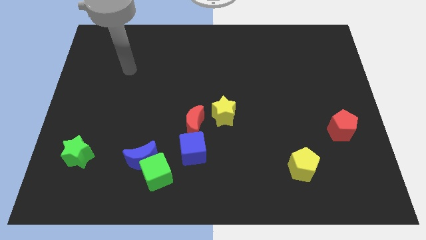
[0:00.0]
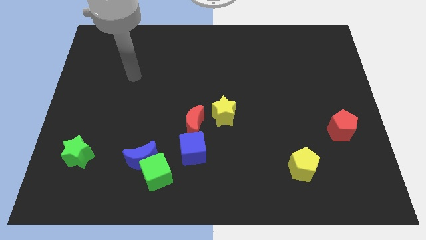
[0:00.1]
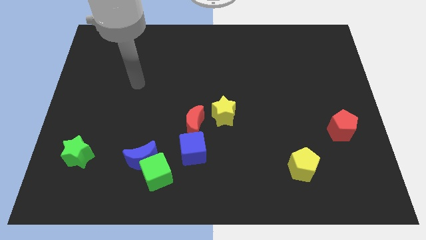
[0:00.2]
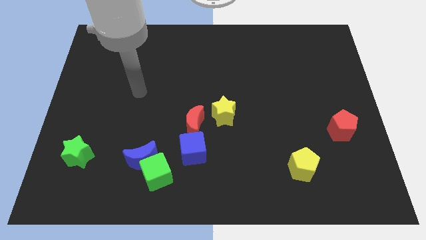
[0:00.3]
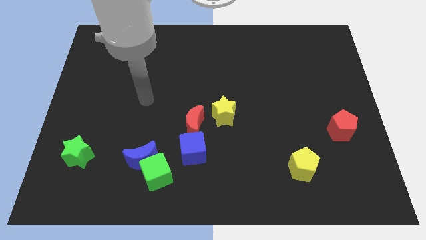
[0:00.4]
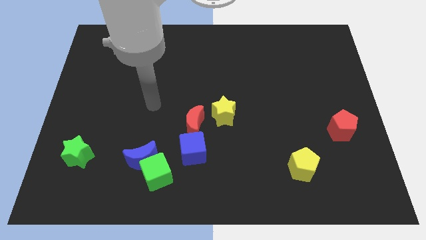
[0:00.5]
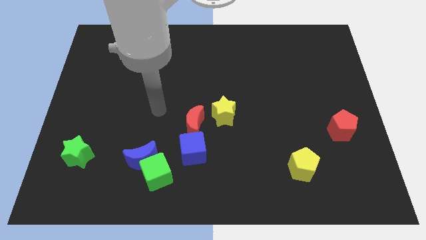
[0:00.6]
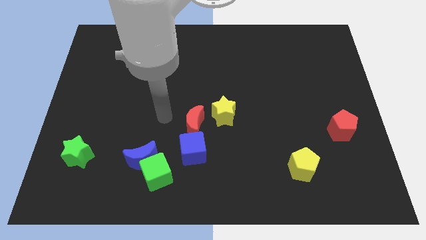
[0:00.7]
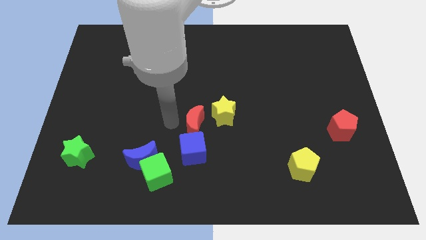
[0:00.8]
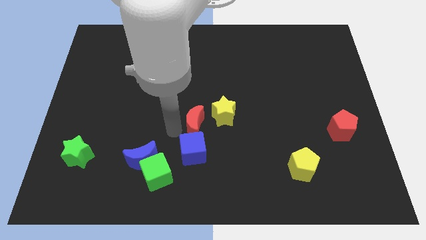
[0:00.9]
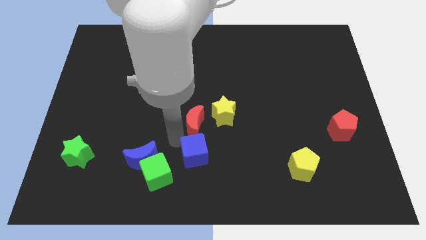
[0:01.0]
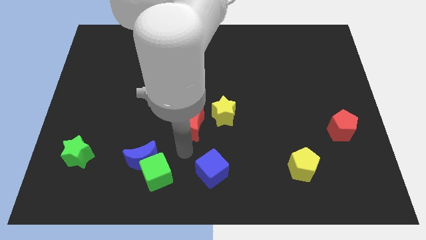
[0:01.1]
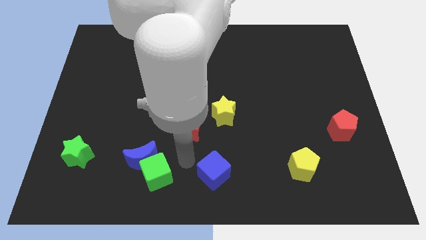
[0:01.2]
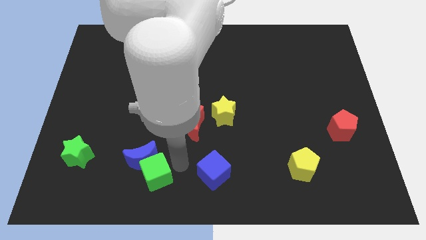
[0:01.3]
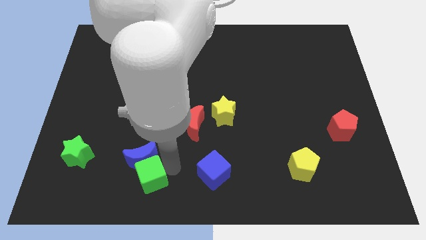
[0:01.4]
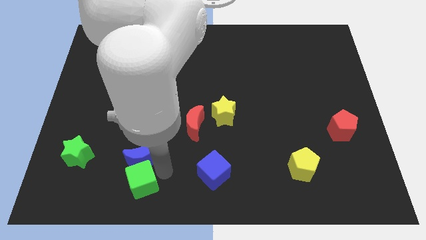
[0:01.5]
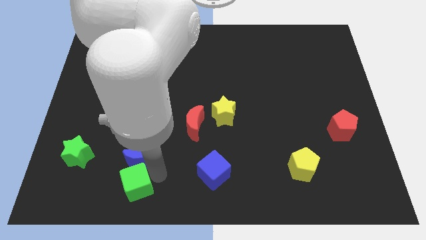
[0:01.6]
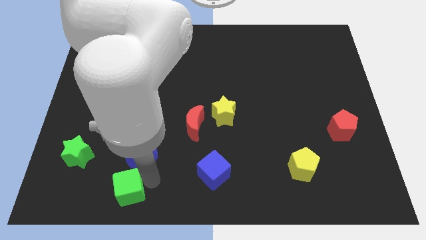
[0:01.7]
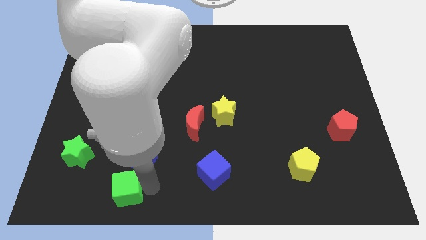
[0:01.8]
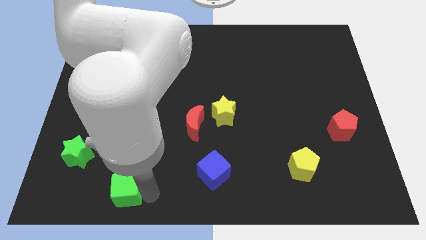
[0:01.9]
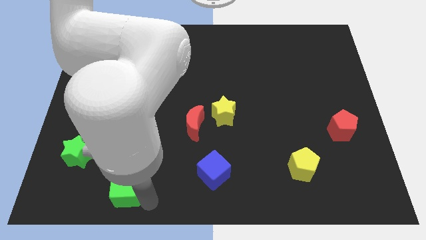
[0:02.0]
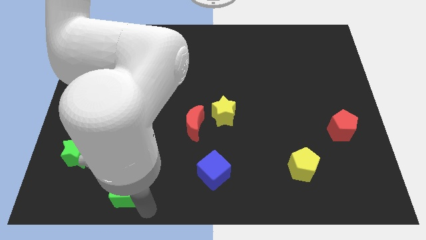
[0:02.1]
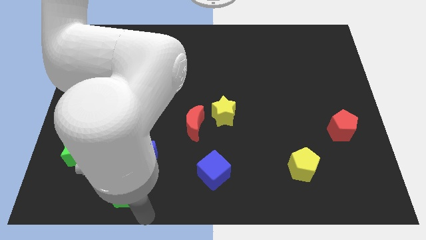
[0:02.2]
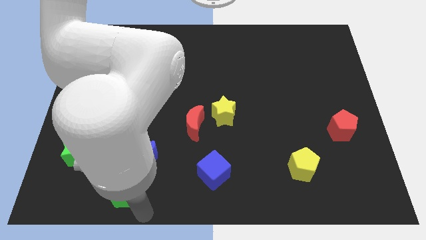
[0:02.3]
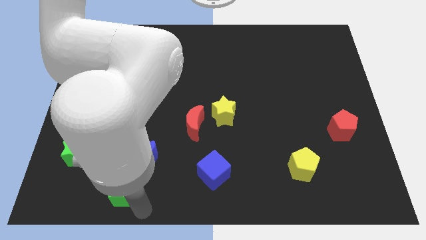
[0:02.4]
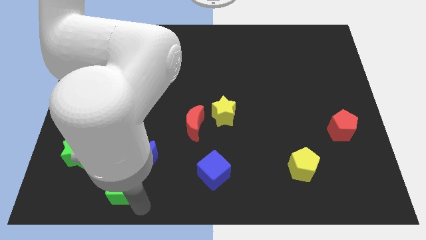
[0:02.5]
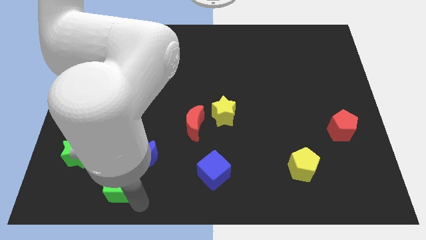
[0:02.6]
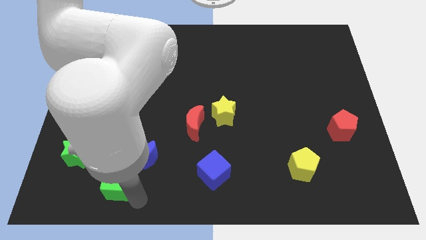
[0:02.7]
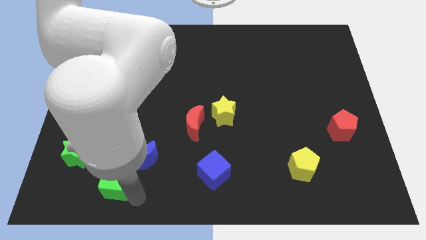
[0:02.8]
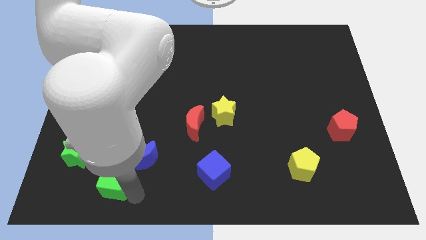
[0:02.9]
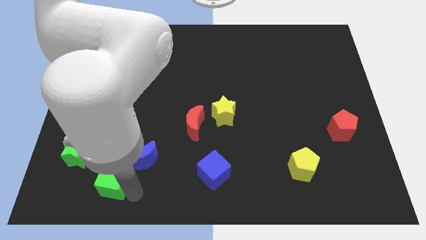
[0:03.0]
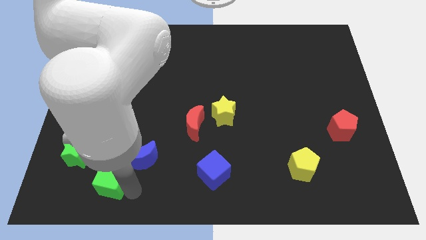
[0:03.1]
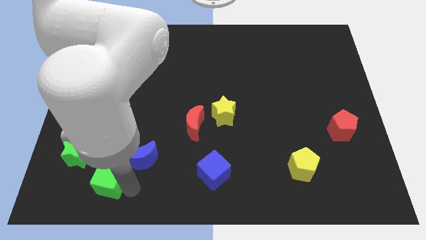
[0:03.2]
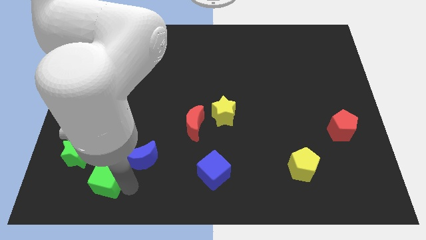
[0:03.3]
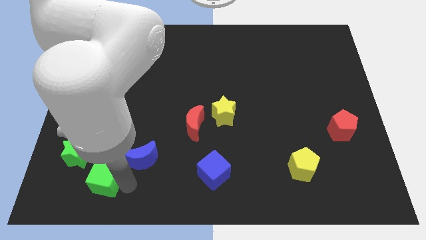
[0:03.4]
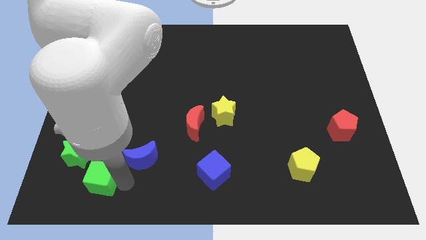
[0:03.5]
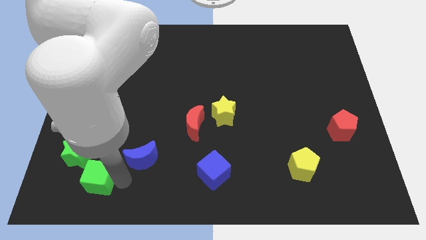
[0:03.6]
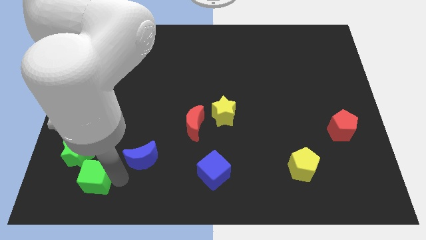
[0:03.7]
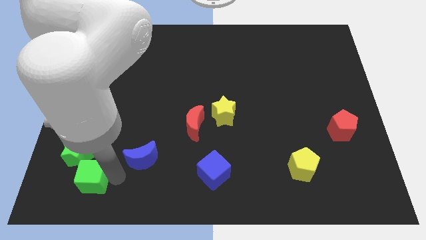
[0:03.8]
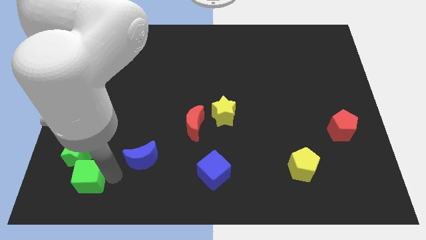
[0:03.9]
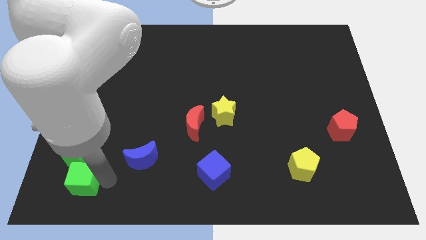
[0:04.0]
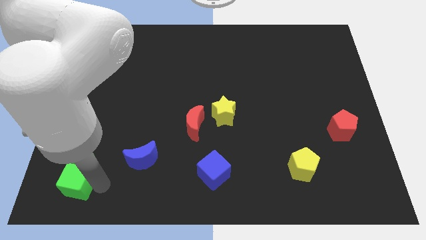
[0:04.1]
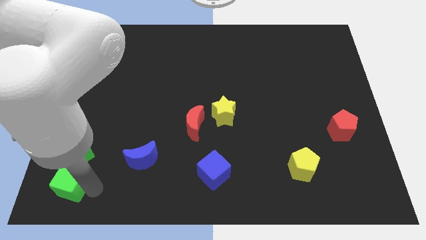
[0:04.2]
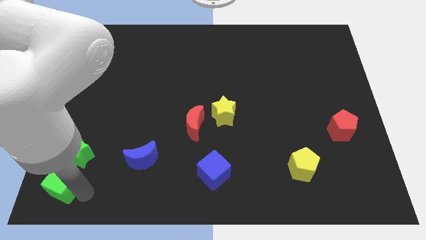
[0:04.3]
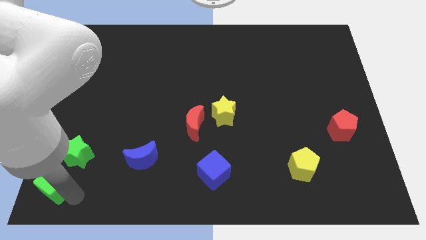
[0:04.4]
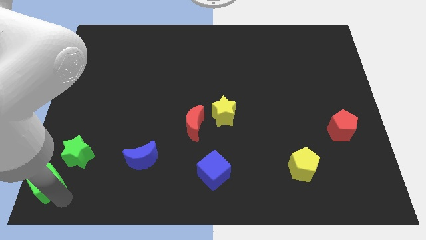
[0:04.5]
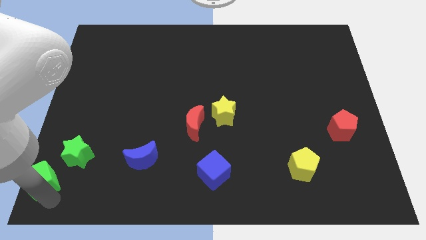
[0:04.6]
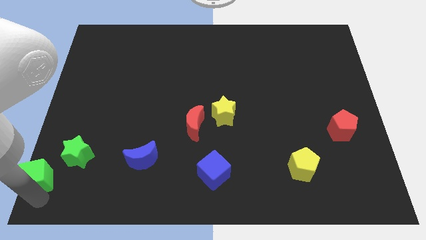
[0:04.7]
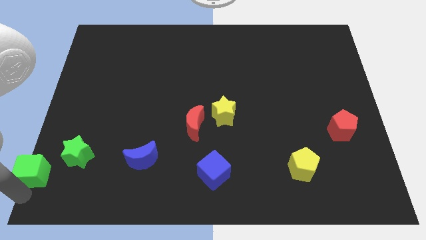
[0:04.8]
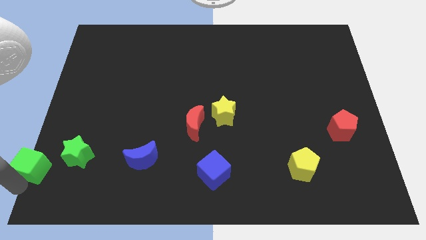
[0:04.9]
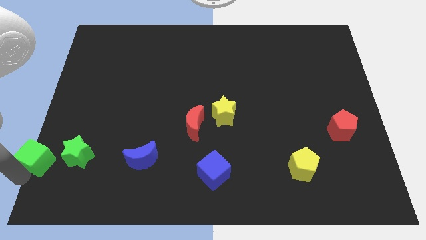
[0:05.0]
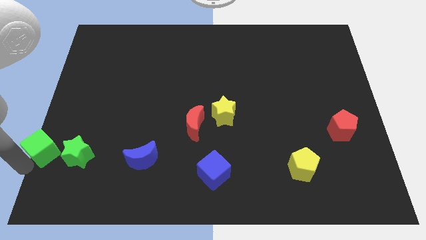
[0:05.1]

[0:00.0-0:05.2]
put the green cube to the left side

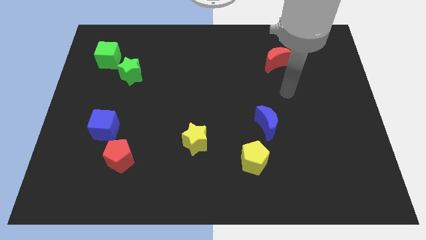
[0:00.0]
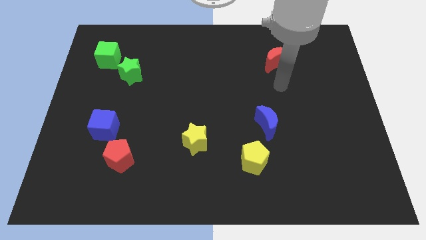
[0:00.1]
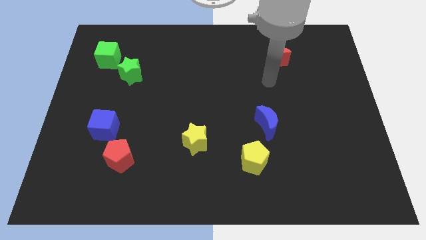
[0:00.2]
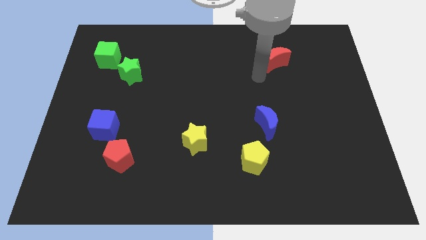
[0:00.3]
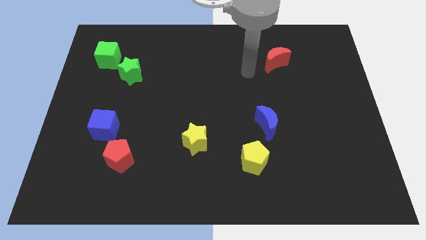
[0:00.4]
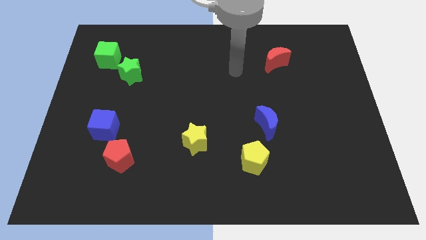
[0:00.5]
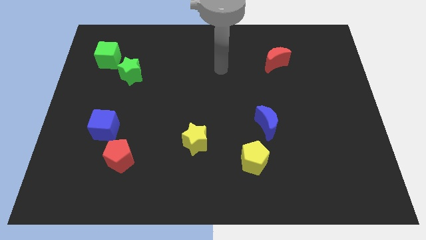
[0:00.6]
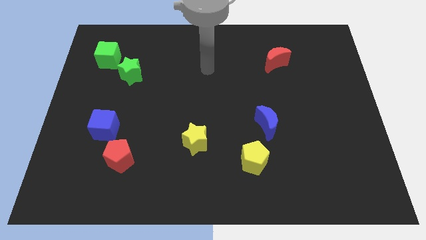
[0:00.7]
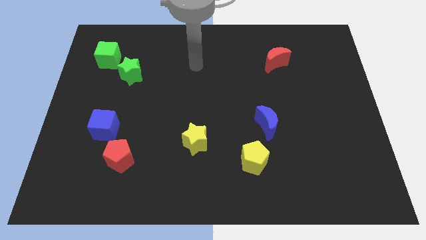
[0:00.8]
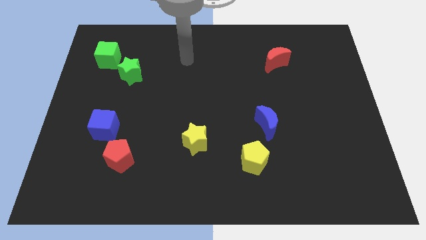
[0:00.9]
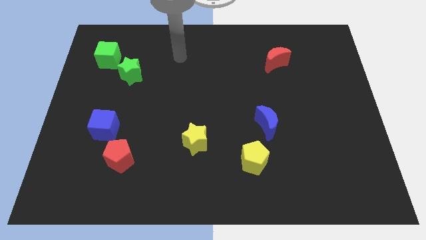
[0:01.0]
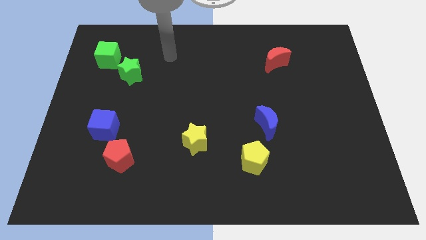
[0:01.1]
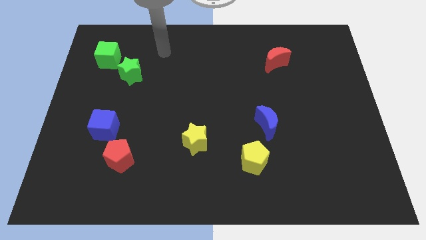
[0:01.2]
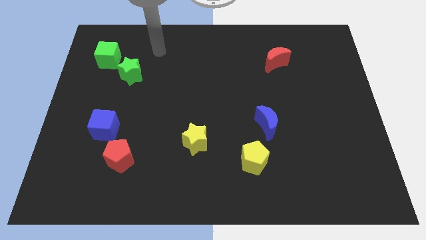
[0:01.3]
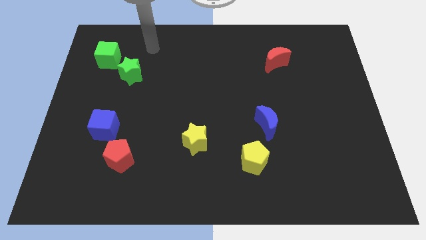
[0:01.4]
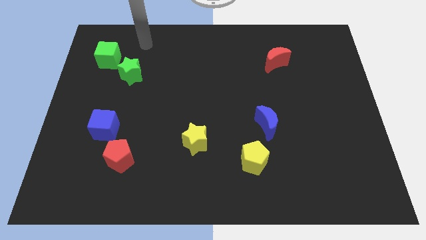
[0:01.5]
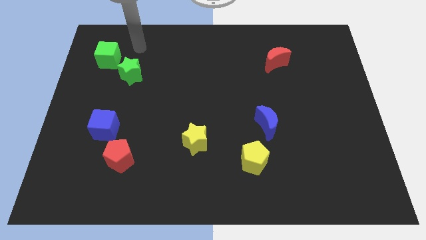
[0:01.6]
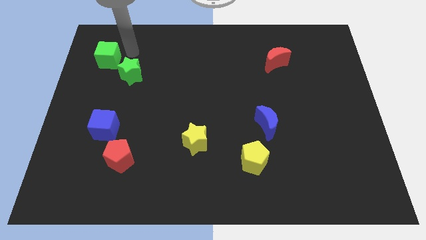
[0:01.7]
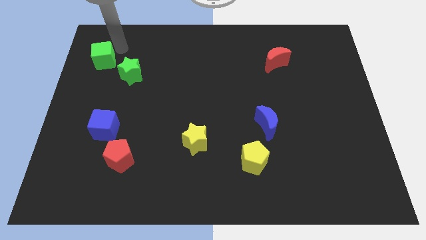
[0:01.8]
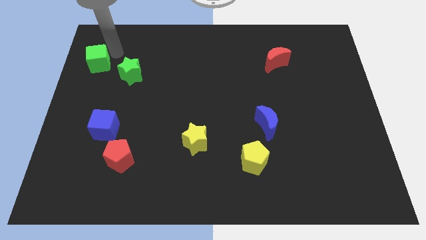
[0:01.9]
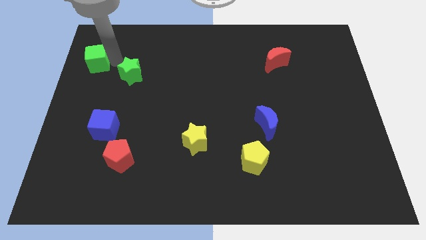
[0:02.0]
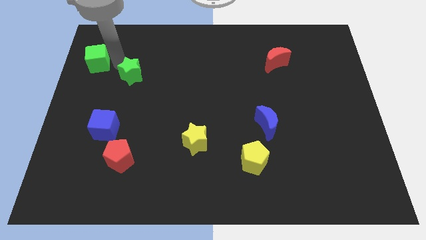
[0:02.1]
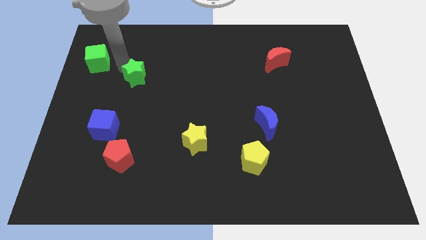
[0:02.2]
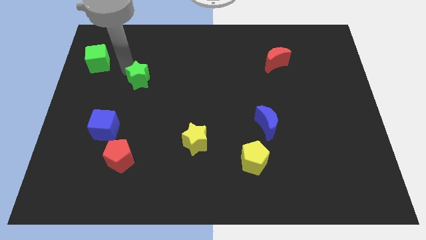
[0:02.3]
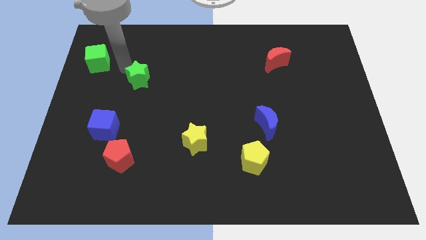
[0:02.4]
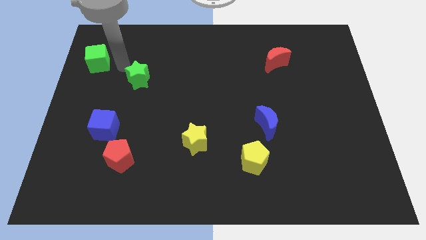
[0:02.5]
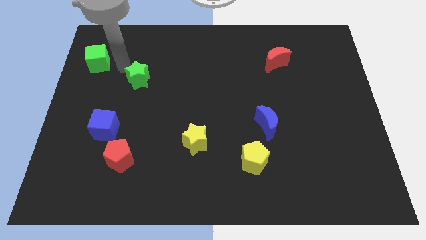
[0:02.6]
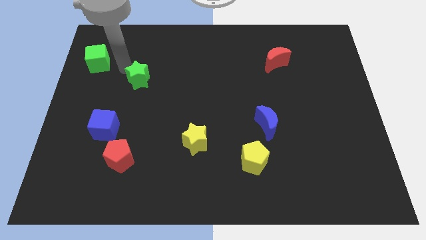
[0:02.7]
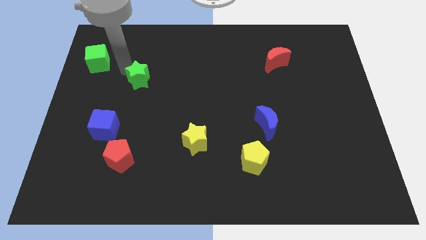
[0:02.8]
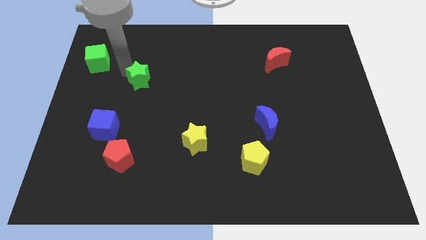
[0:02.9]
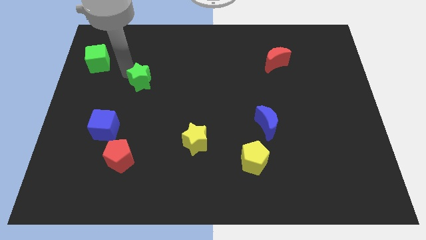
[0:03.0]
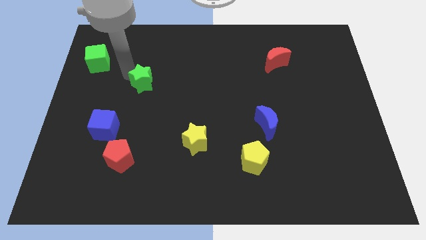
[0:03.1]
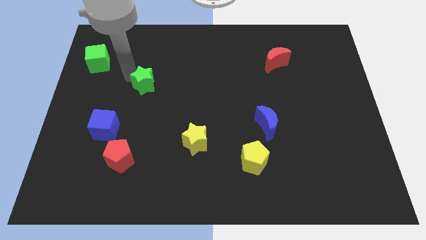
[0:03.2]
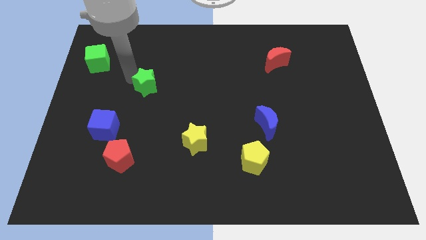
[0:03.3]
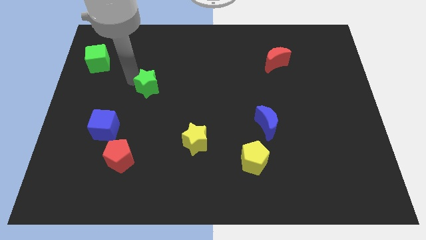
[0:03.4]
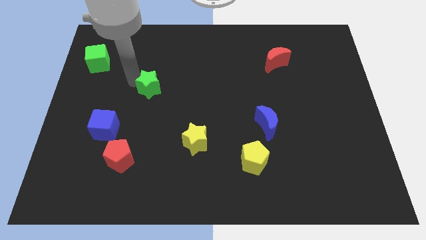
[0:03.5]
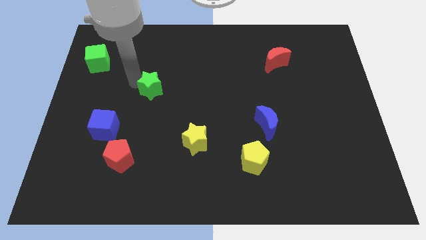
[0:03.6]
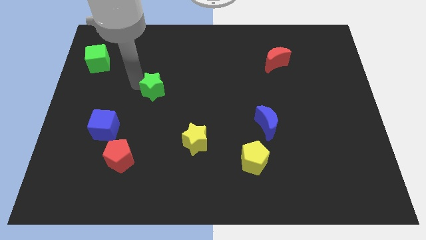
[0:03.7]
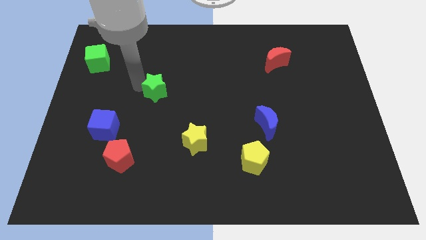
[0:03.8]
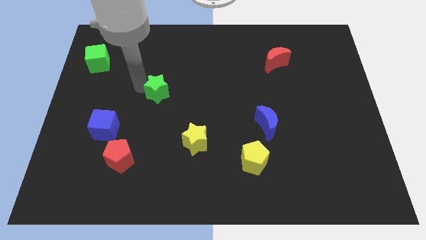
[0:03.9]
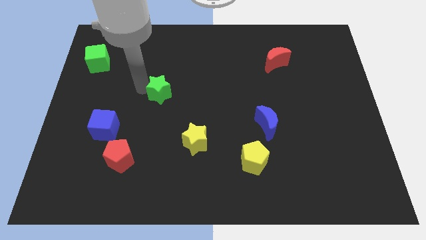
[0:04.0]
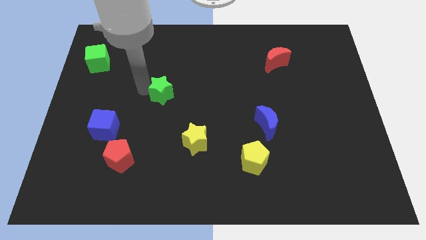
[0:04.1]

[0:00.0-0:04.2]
move the green star to the middle of the board
